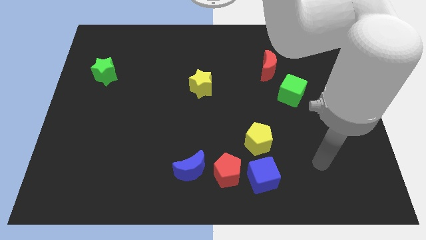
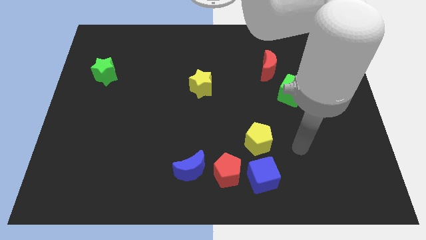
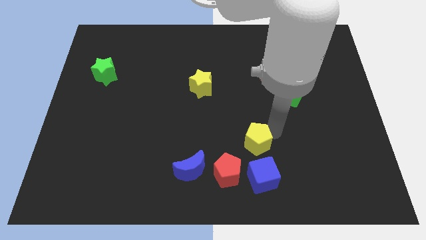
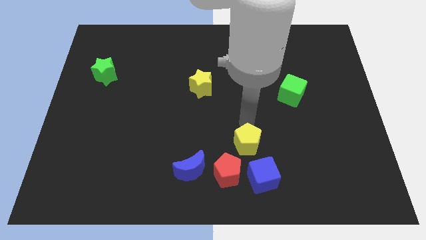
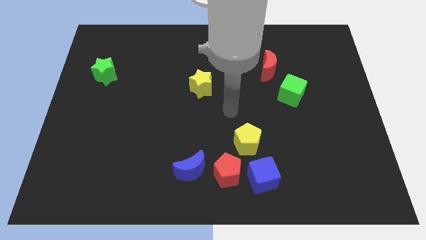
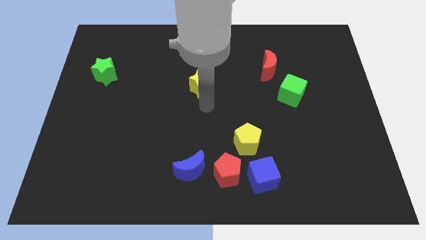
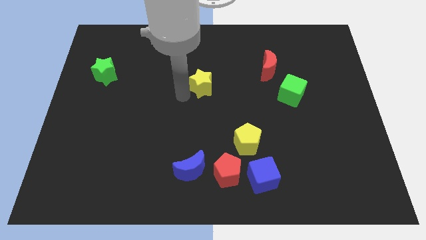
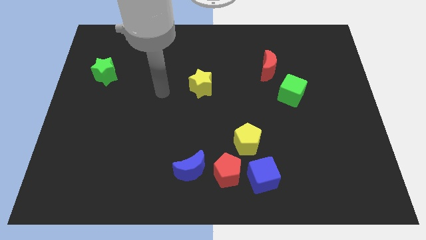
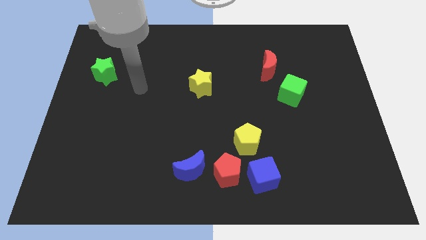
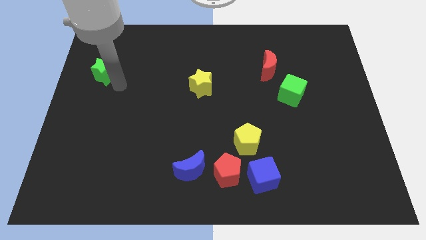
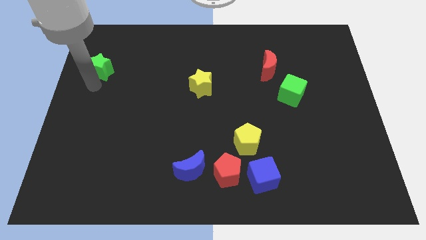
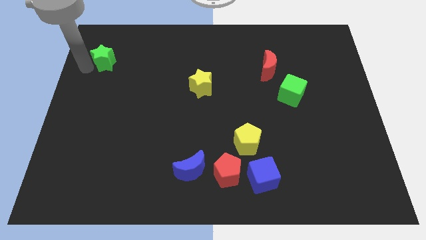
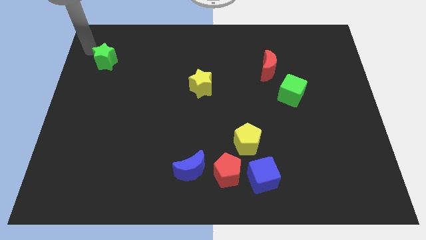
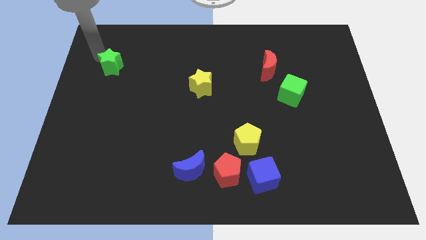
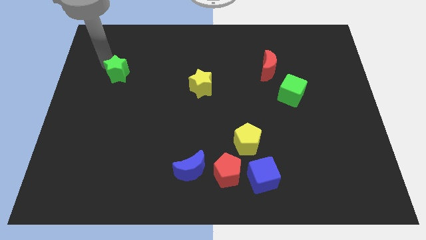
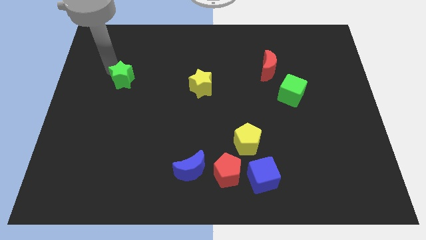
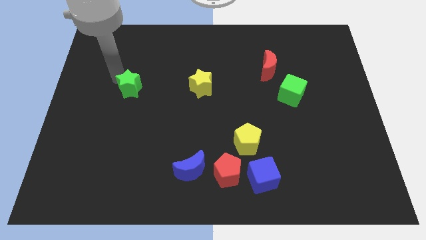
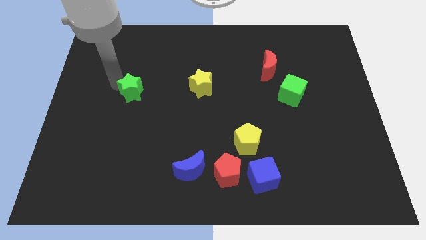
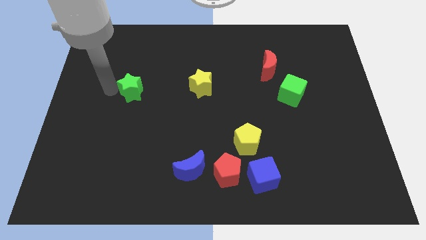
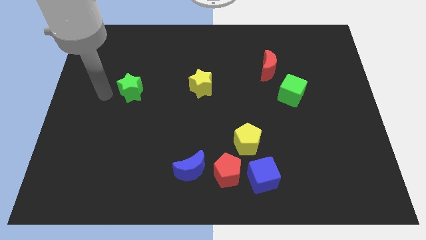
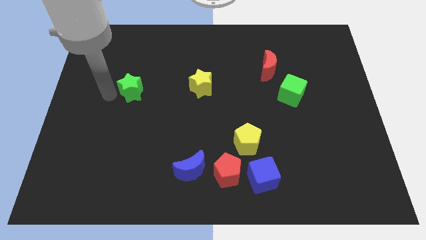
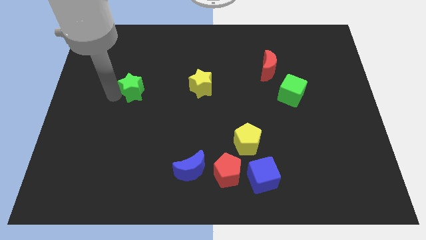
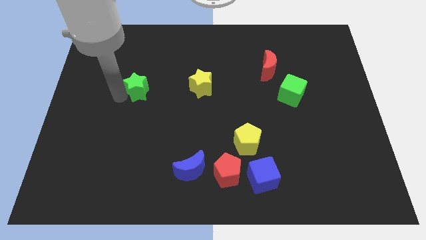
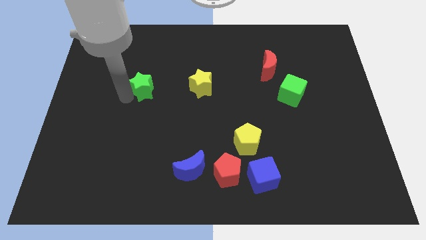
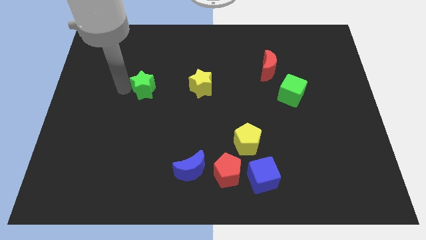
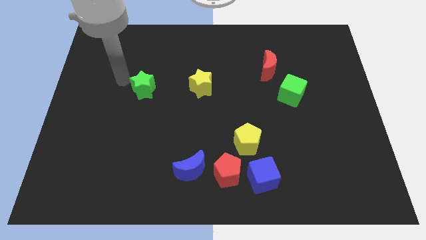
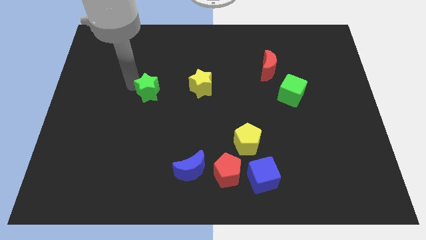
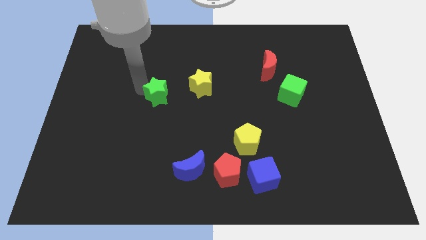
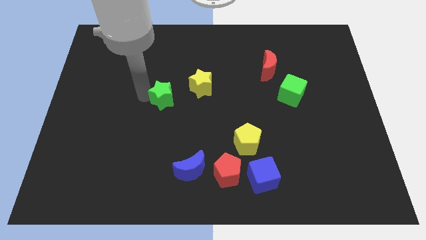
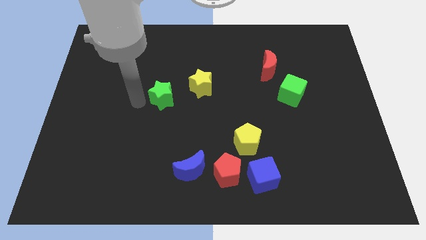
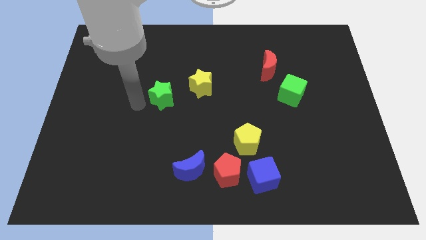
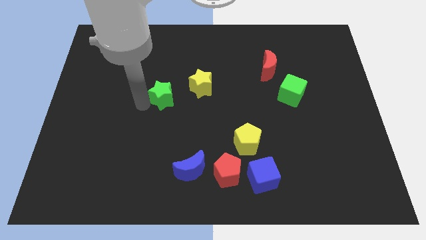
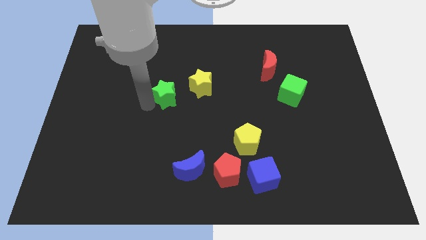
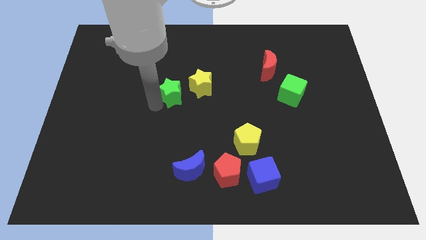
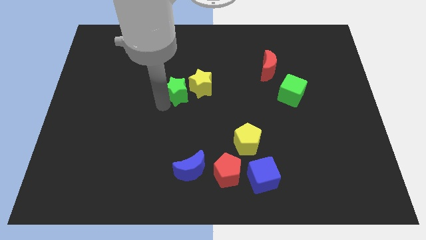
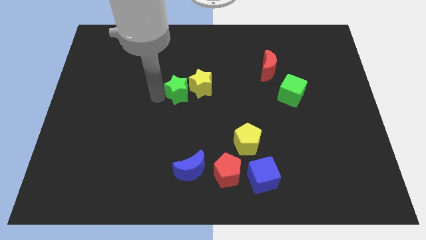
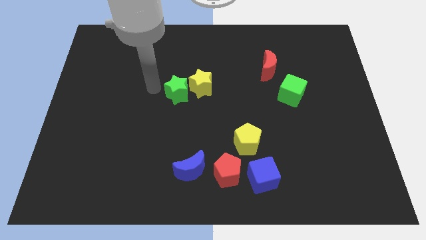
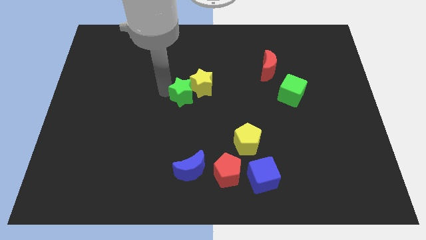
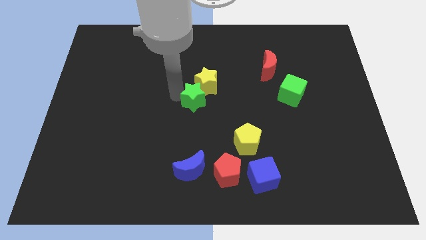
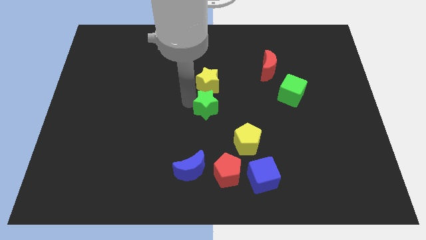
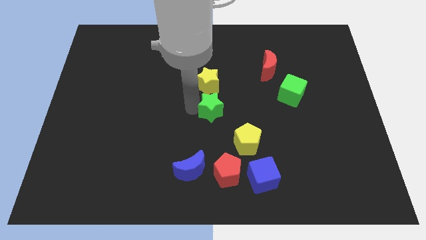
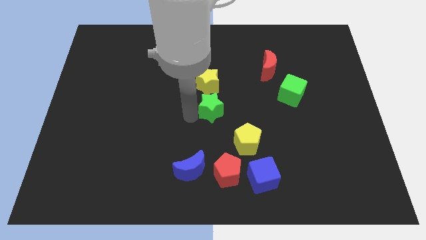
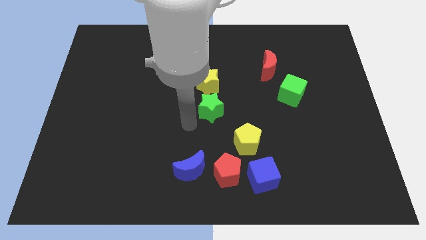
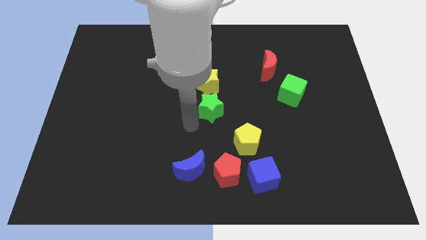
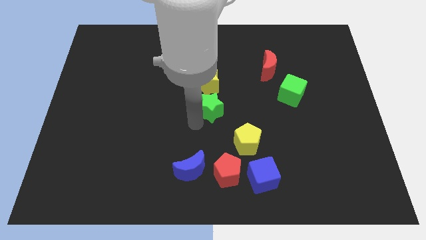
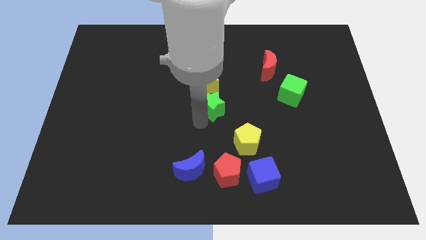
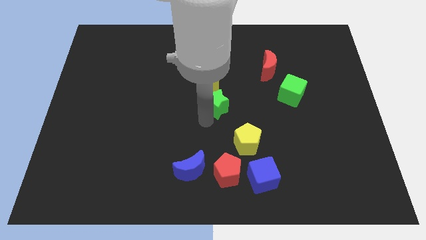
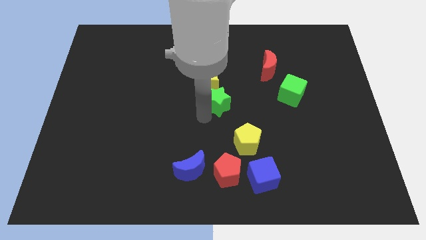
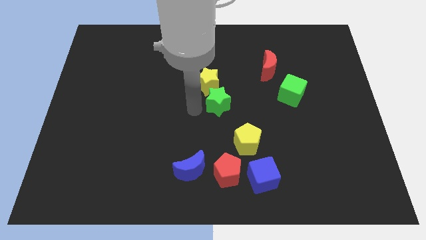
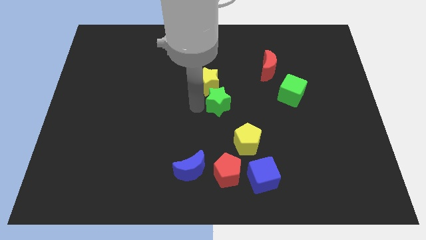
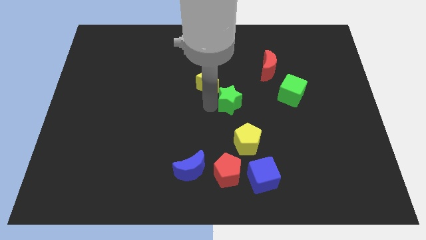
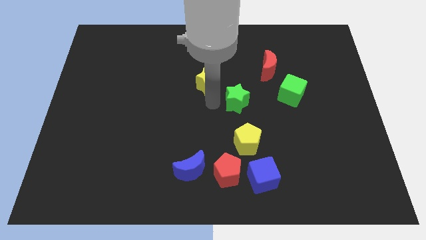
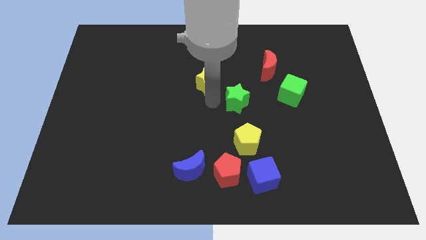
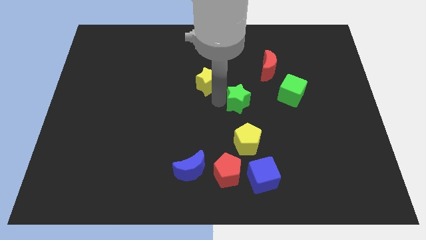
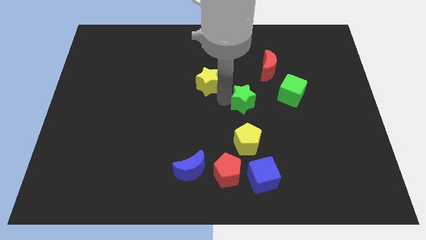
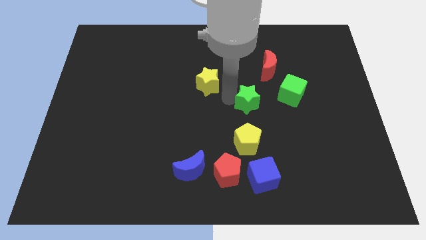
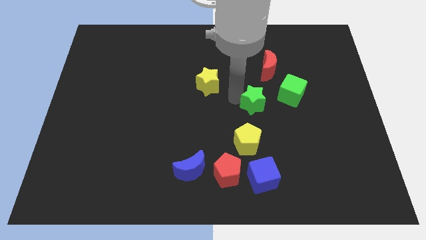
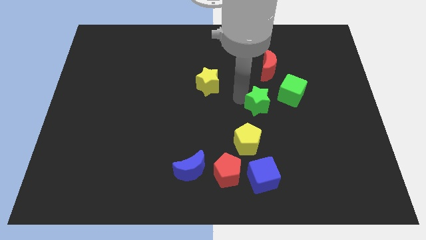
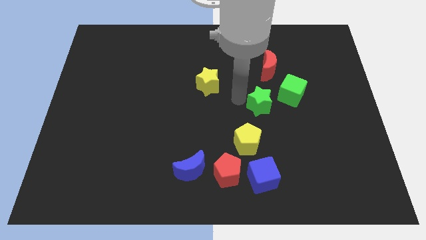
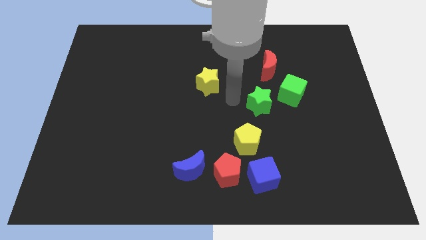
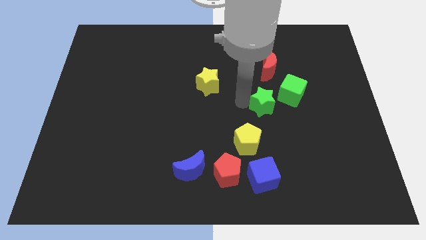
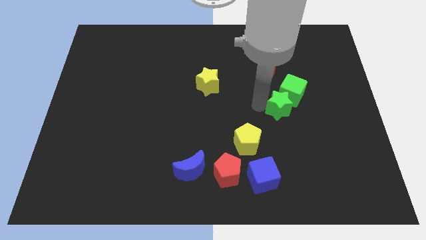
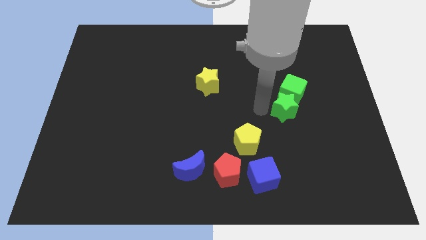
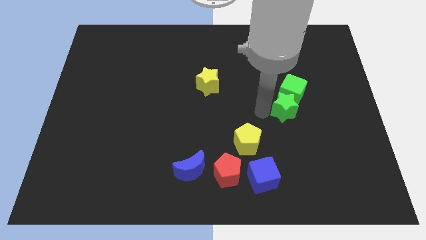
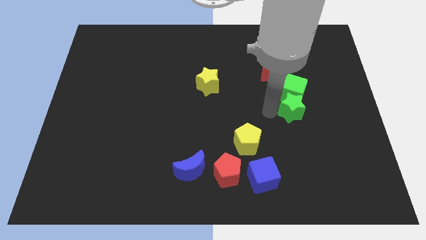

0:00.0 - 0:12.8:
slide the green star to the bottom right of the green cube

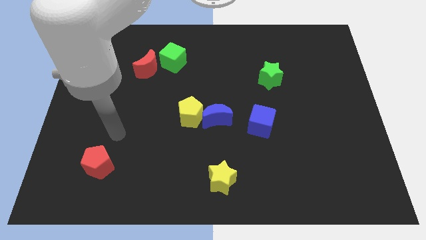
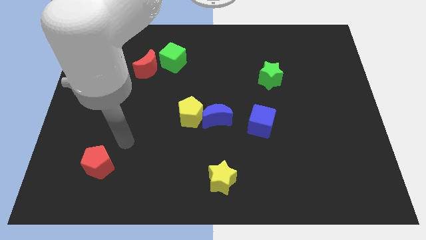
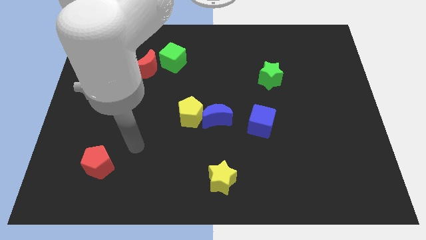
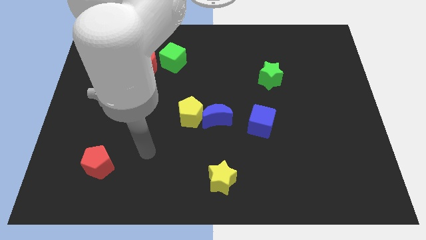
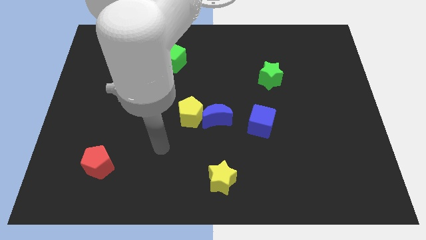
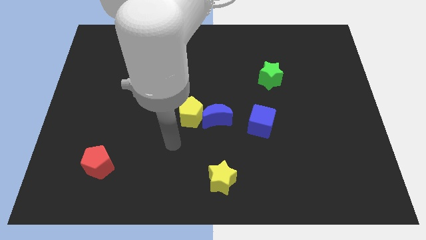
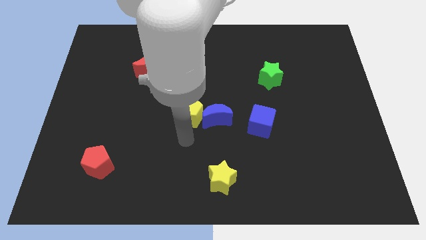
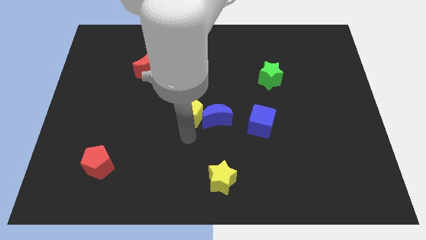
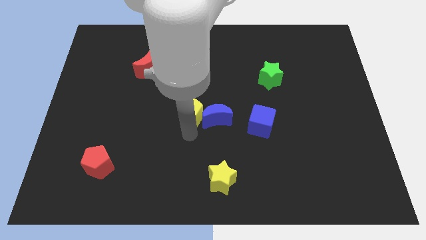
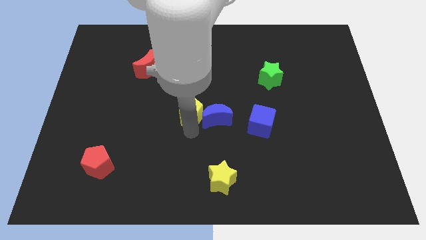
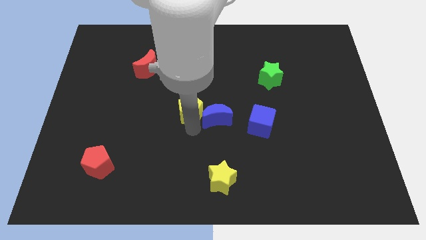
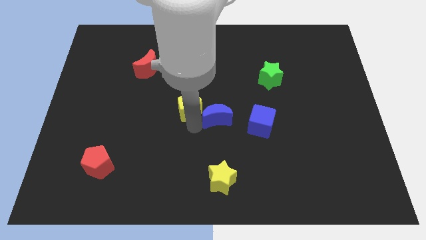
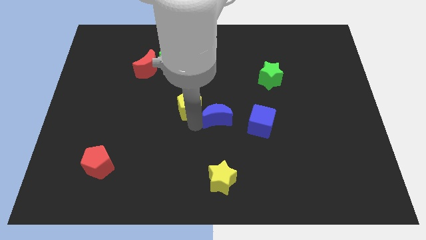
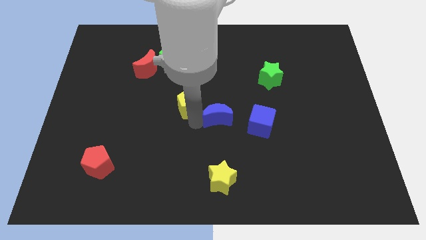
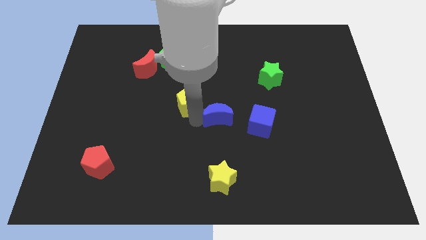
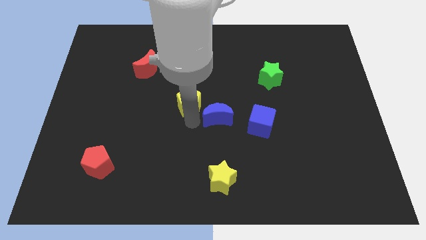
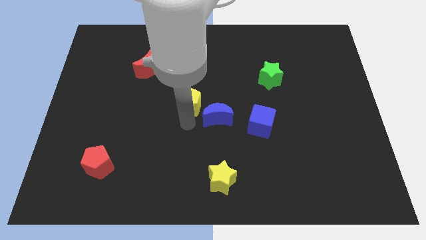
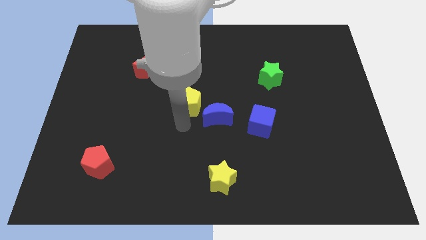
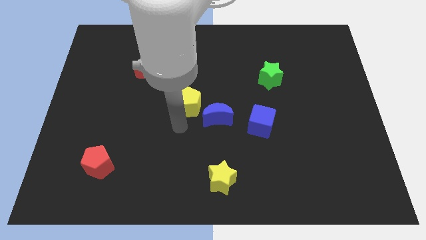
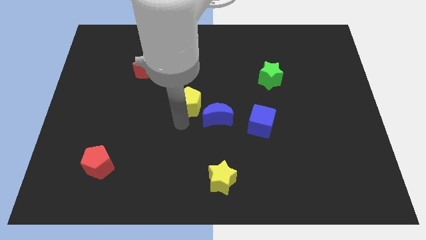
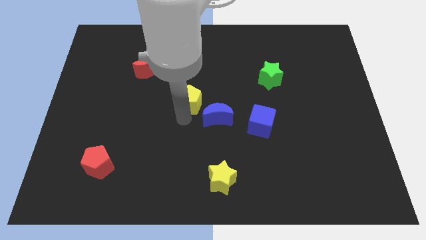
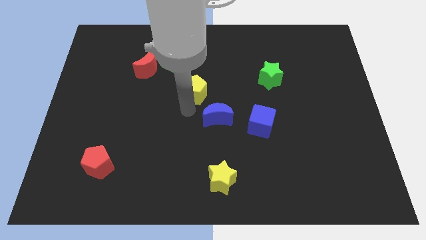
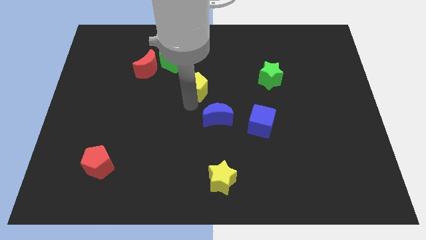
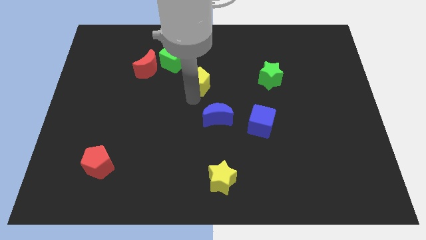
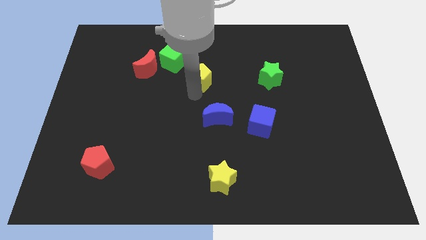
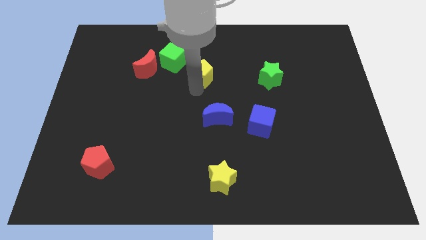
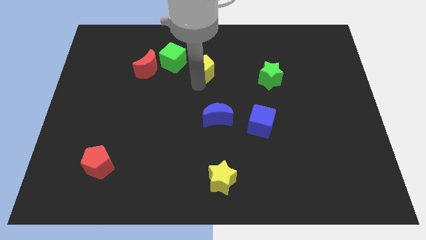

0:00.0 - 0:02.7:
move the yellow pentagon to the right side of the green cube
